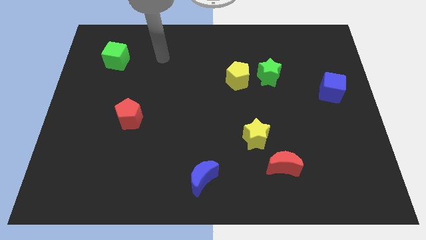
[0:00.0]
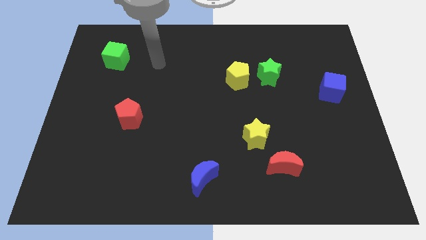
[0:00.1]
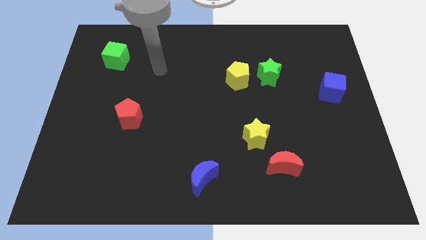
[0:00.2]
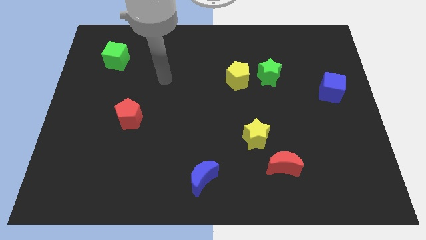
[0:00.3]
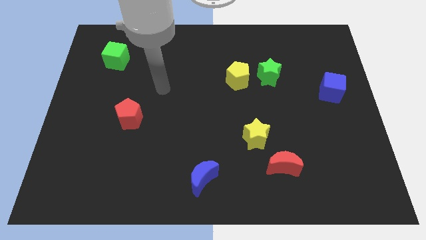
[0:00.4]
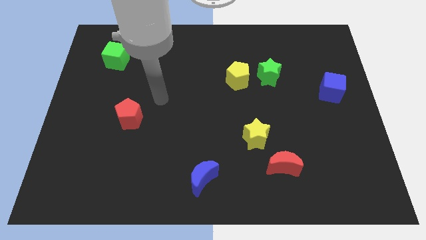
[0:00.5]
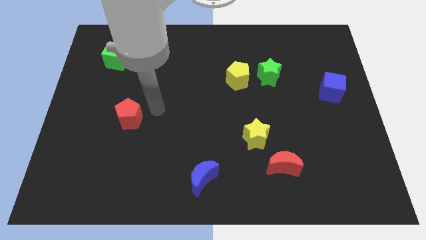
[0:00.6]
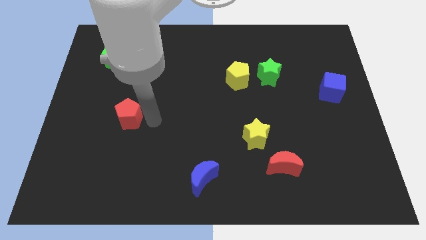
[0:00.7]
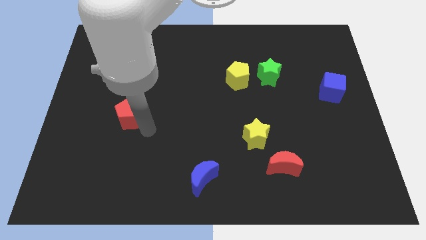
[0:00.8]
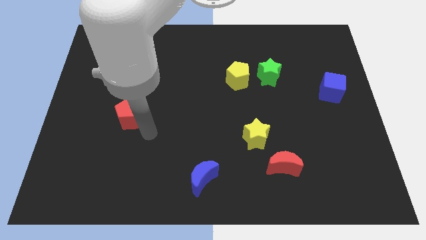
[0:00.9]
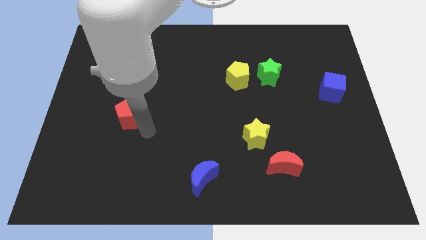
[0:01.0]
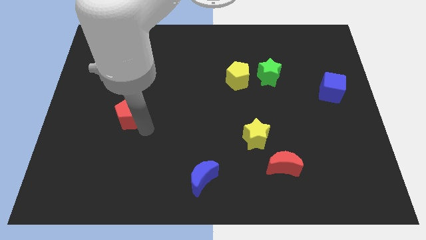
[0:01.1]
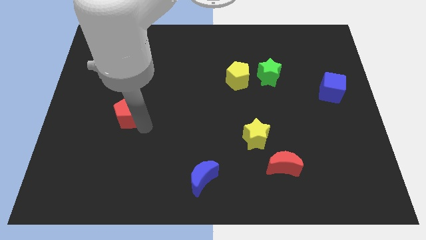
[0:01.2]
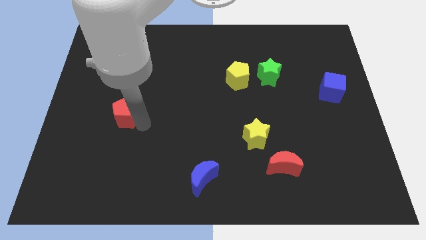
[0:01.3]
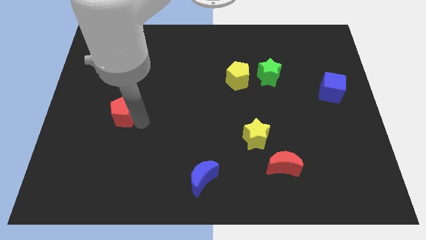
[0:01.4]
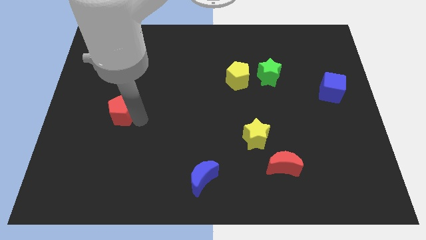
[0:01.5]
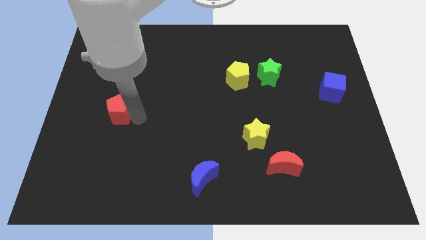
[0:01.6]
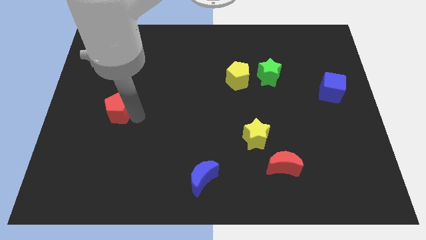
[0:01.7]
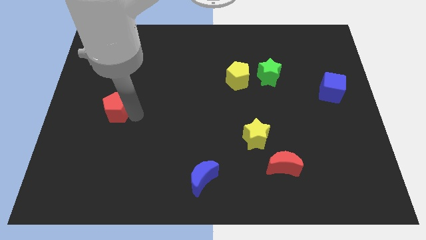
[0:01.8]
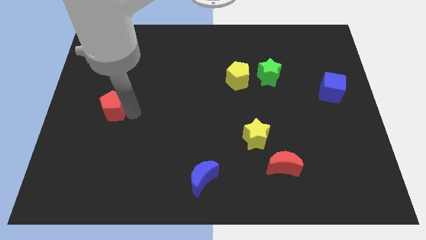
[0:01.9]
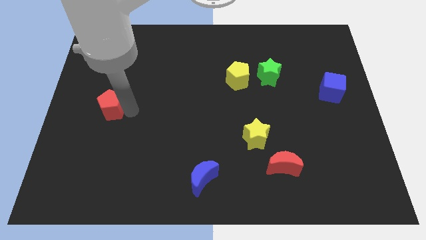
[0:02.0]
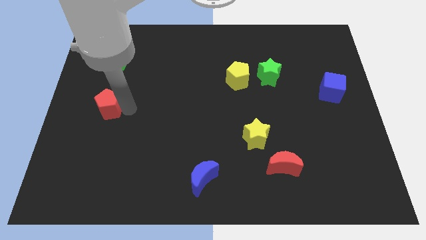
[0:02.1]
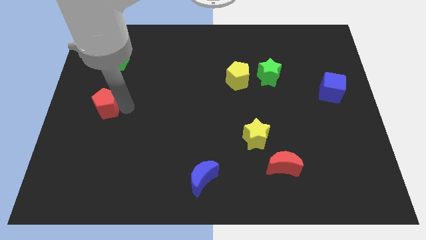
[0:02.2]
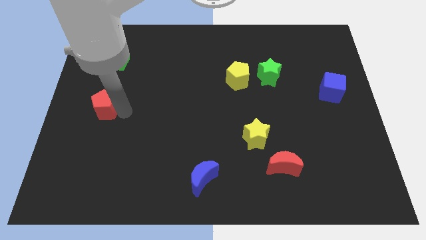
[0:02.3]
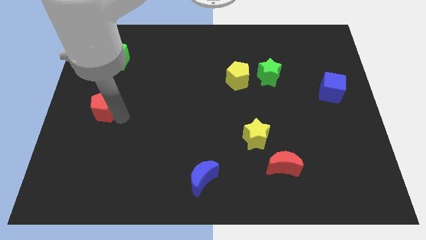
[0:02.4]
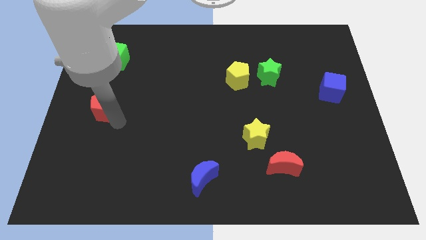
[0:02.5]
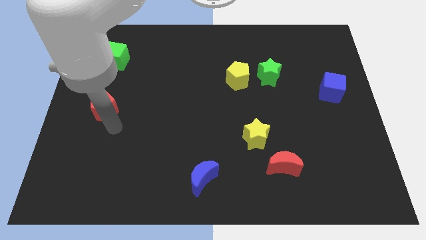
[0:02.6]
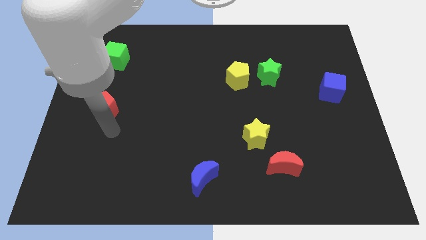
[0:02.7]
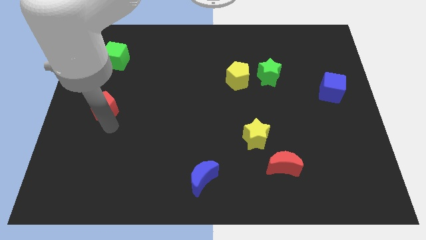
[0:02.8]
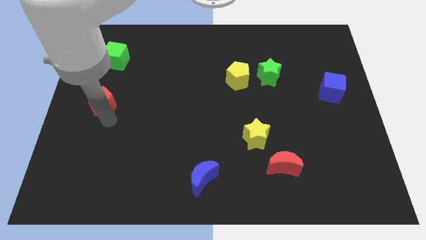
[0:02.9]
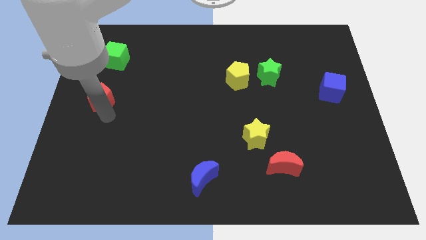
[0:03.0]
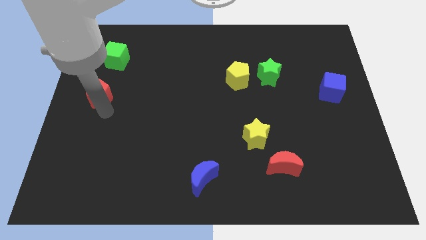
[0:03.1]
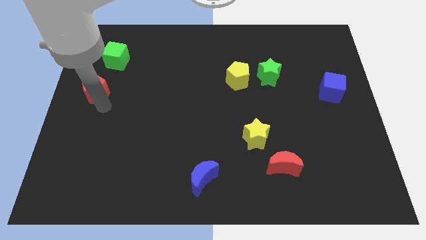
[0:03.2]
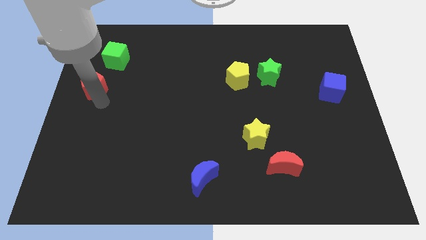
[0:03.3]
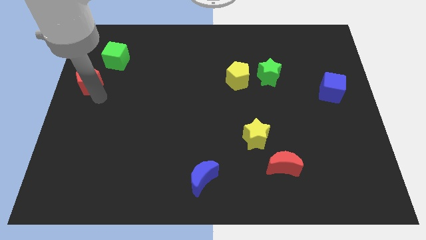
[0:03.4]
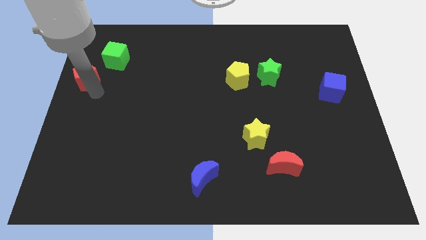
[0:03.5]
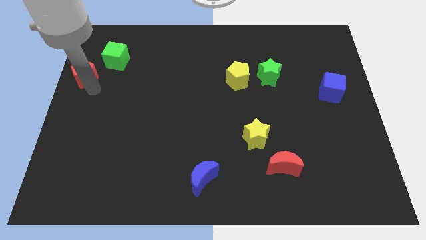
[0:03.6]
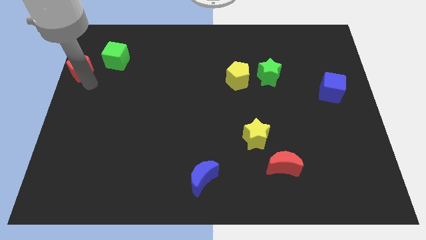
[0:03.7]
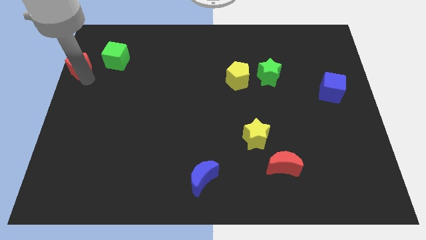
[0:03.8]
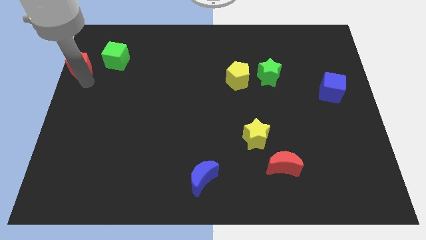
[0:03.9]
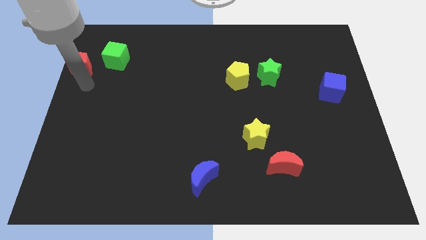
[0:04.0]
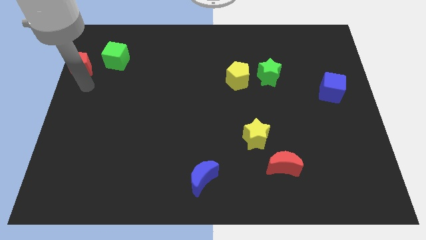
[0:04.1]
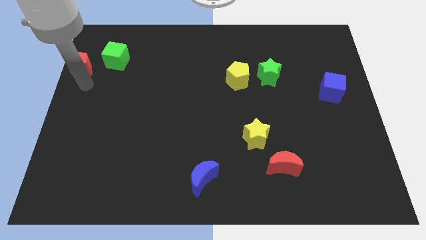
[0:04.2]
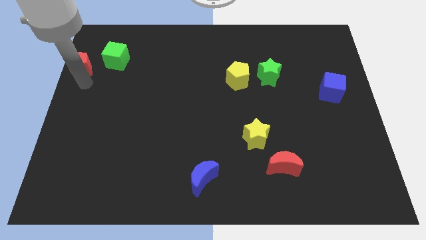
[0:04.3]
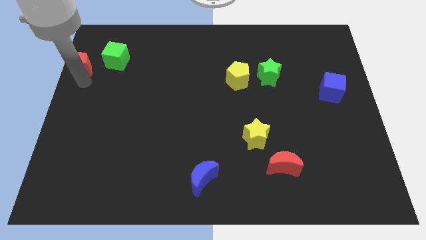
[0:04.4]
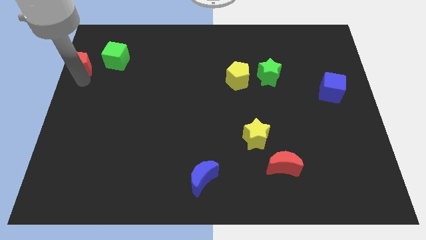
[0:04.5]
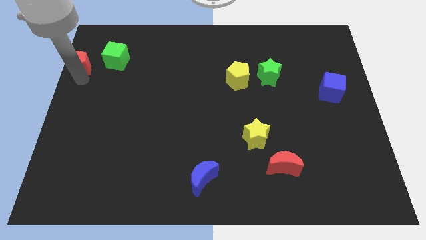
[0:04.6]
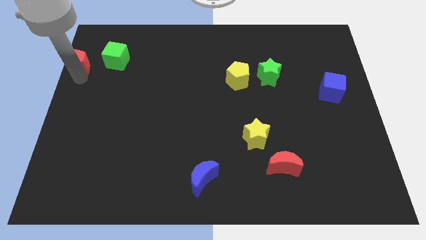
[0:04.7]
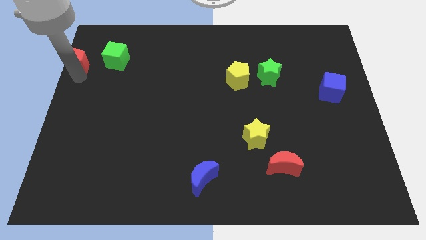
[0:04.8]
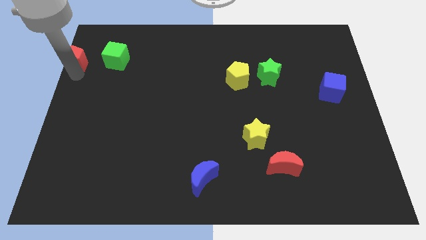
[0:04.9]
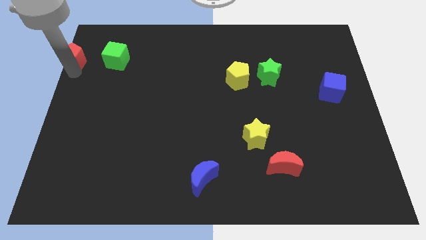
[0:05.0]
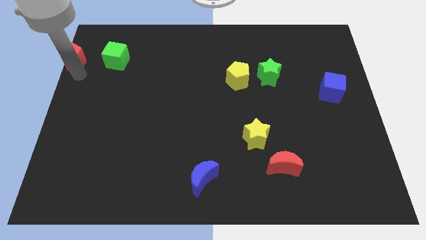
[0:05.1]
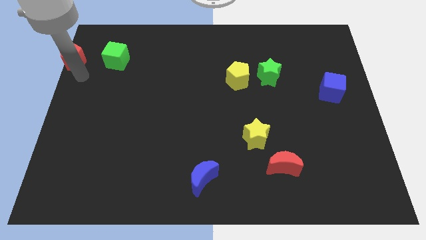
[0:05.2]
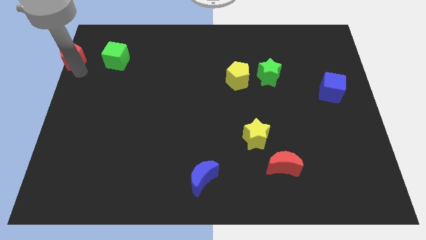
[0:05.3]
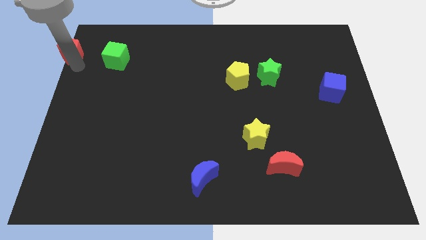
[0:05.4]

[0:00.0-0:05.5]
push the red pentagon to the top left corner
